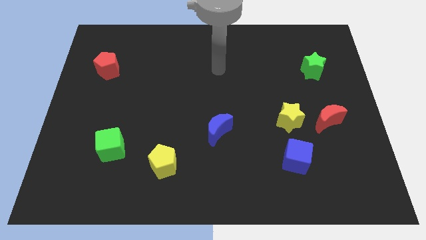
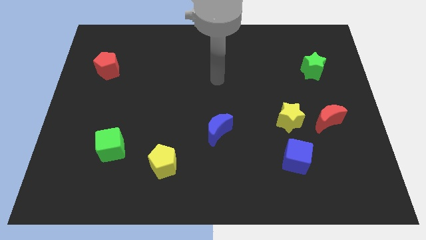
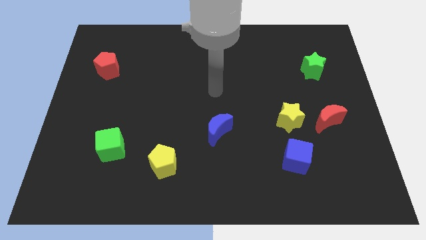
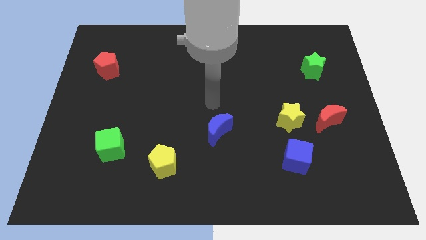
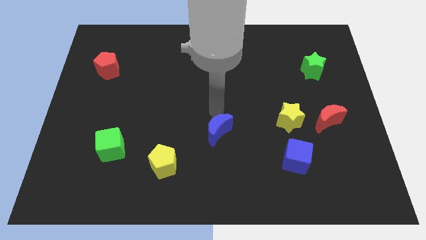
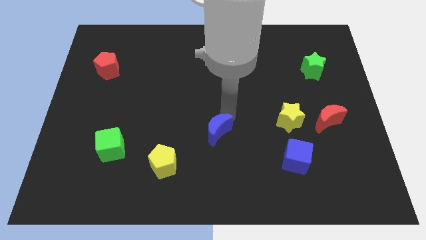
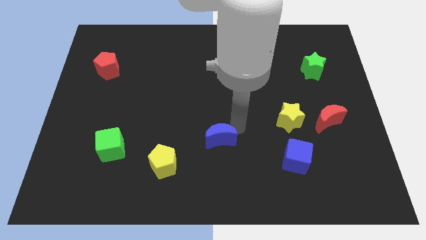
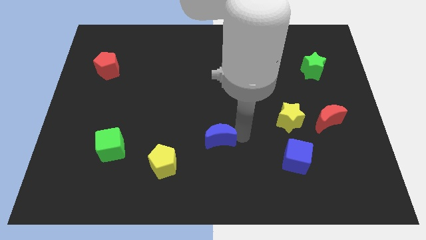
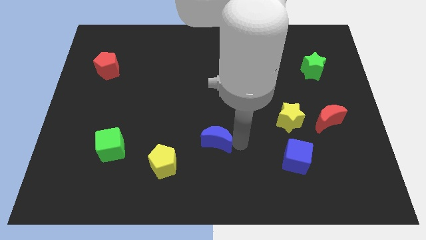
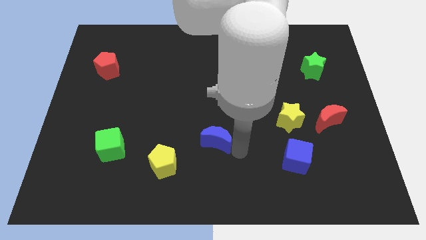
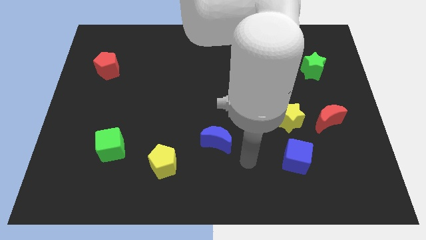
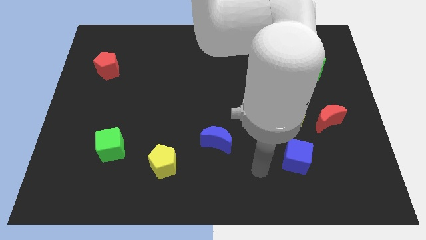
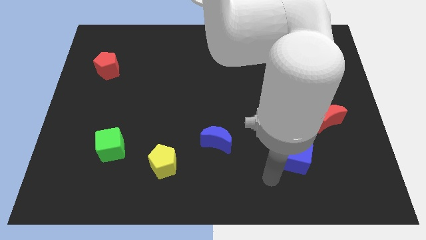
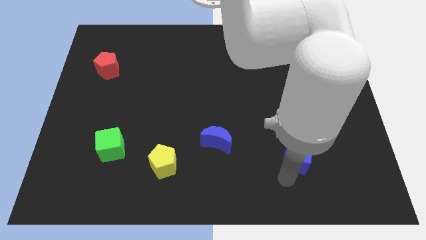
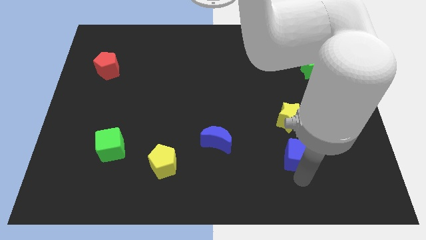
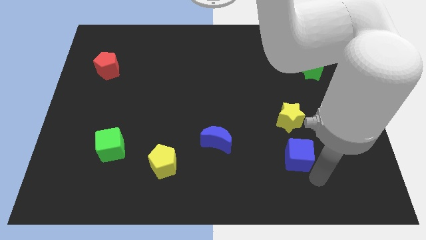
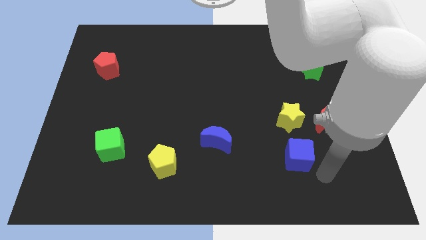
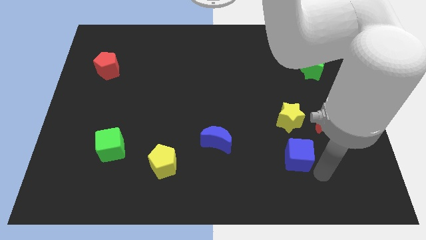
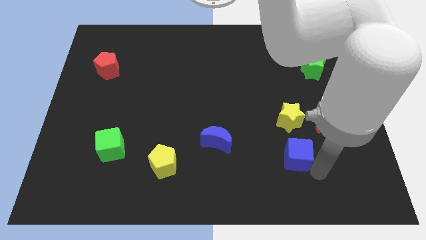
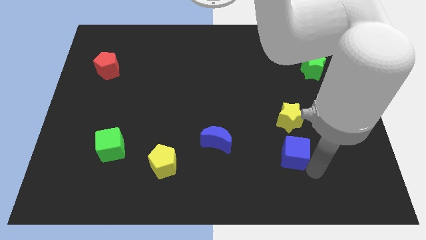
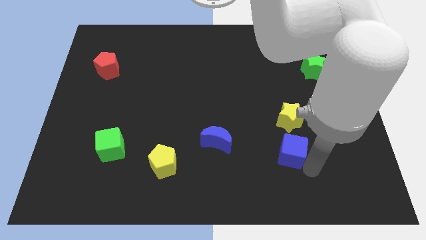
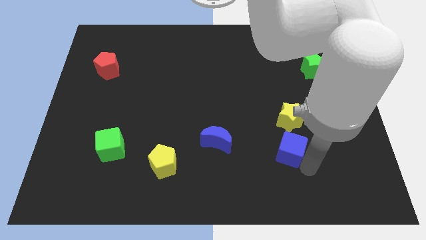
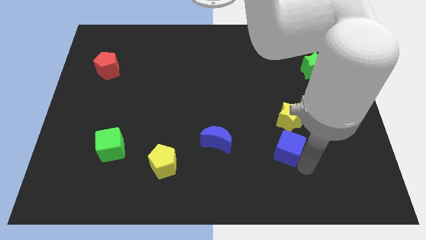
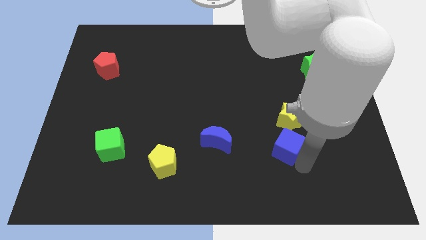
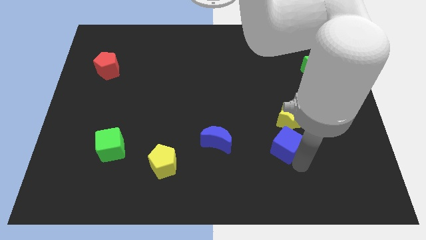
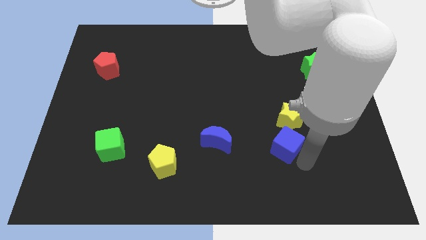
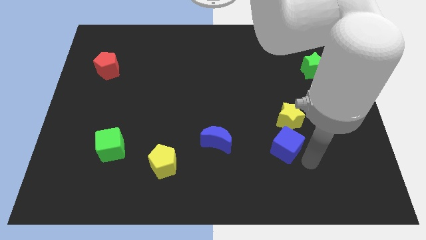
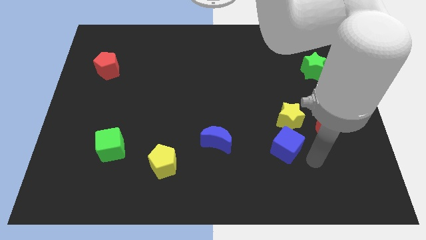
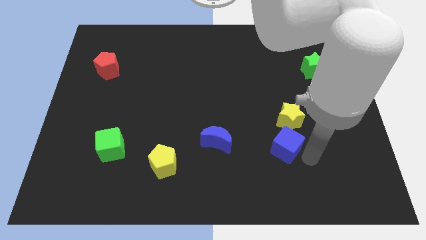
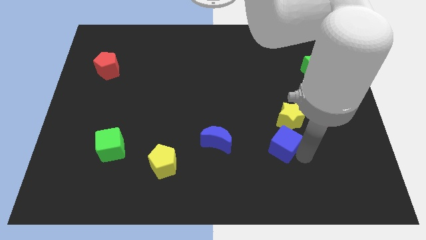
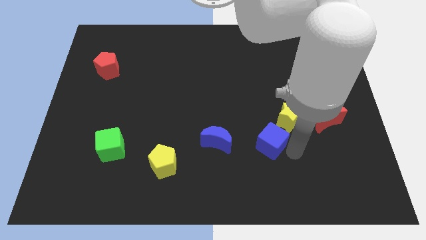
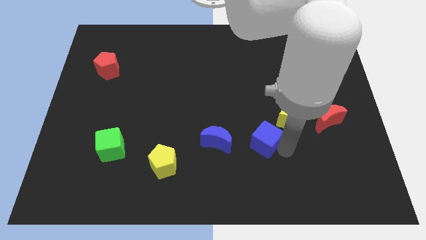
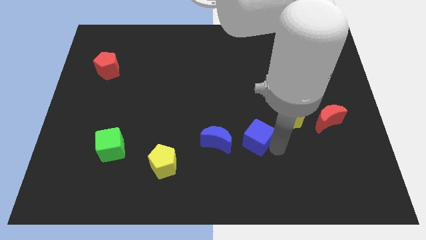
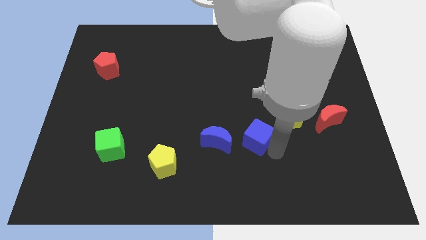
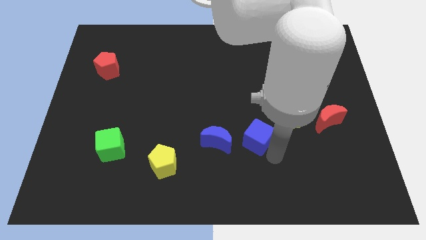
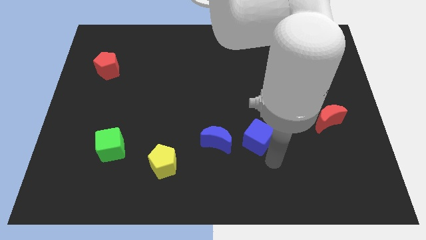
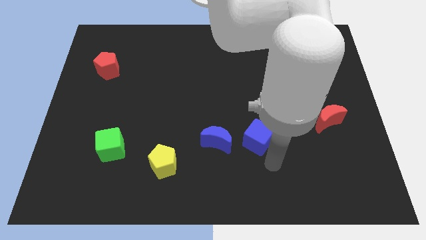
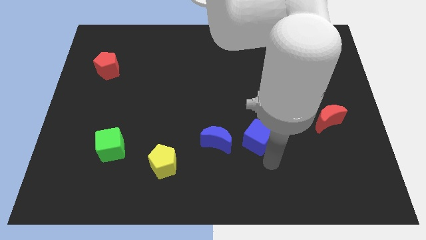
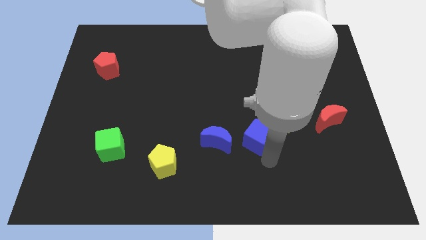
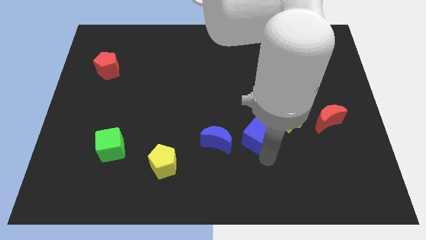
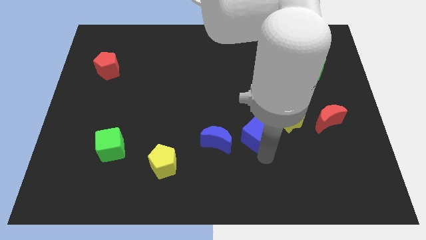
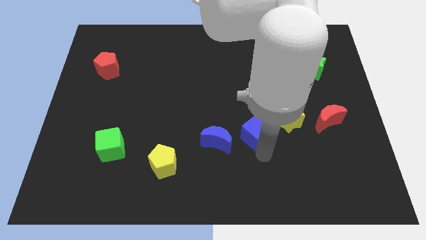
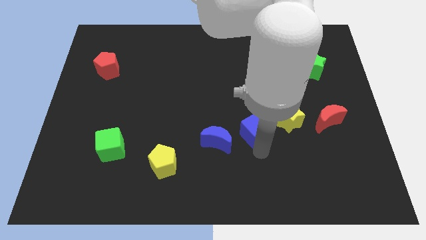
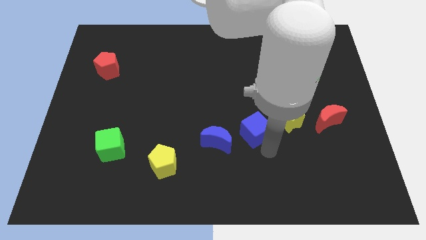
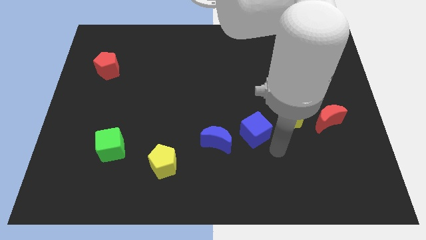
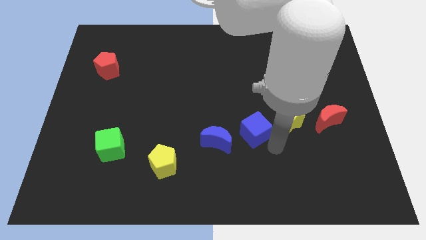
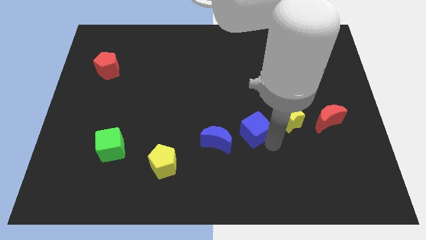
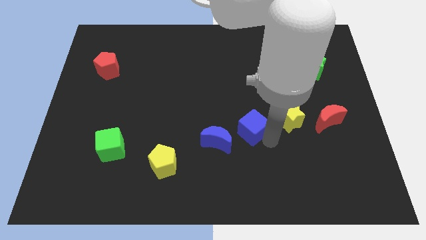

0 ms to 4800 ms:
slide the blue cube to the middle of the board

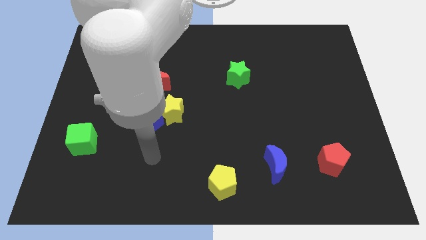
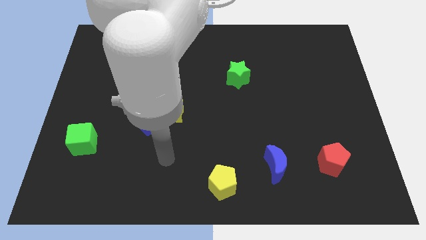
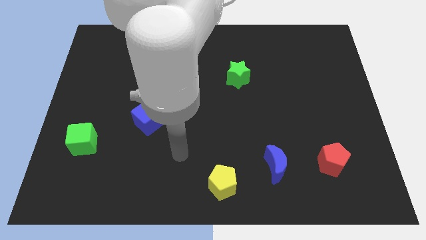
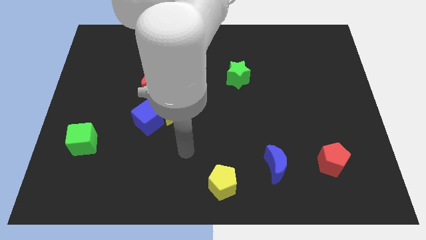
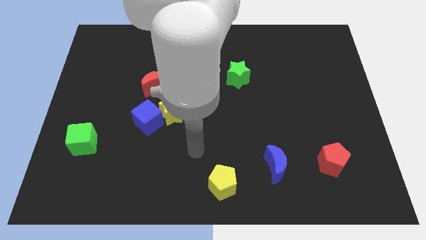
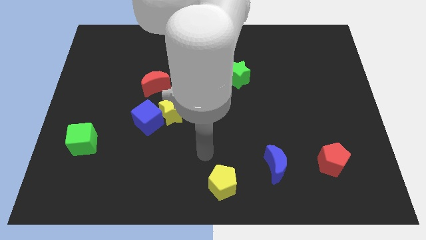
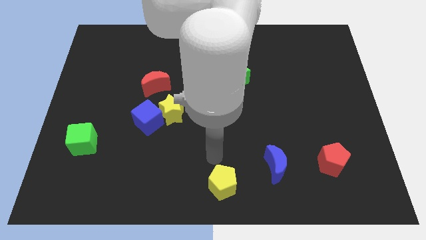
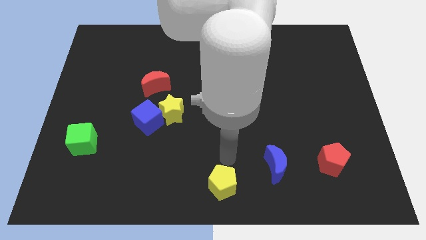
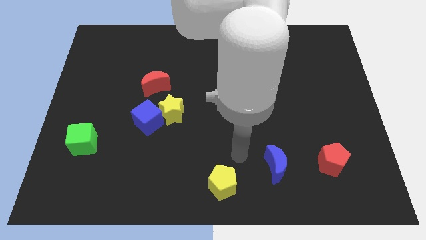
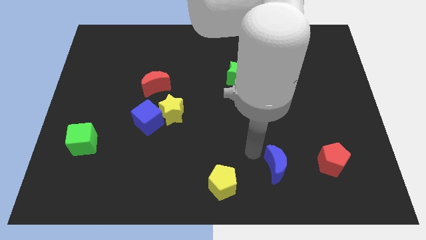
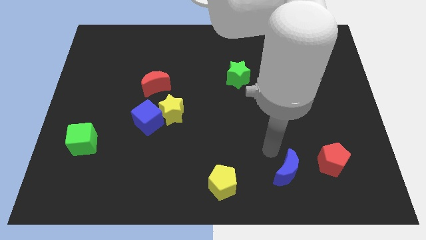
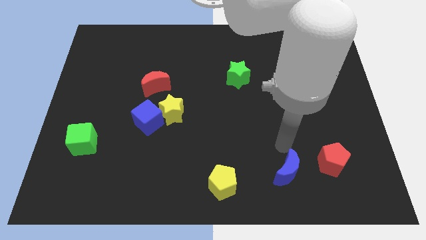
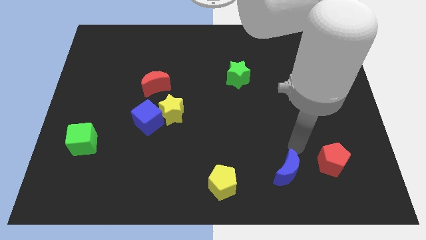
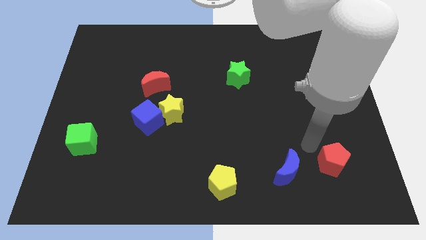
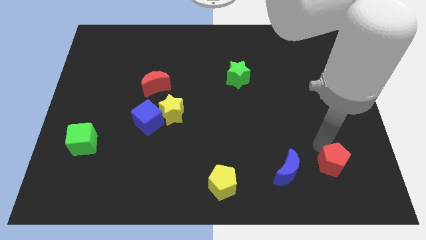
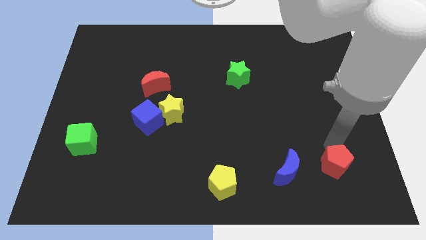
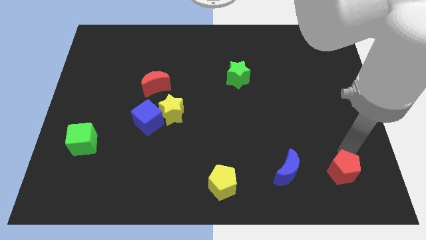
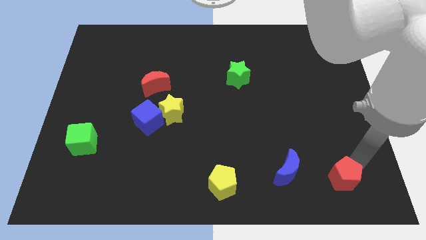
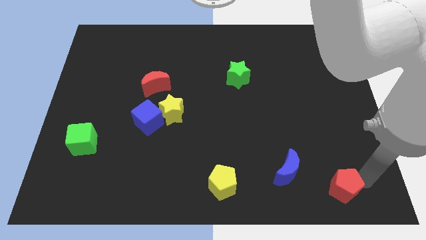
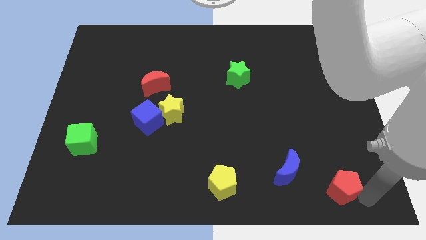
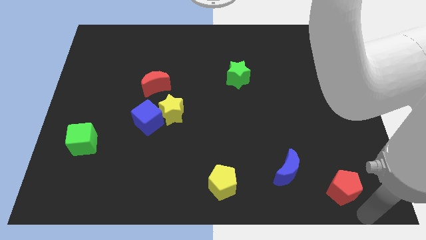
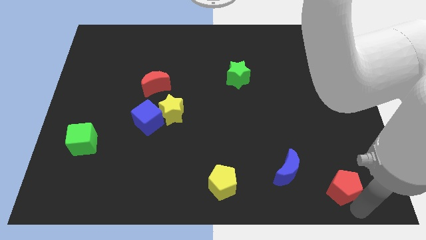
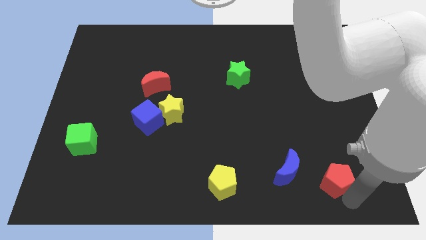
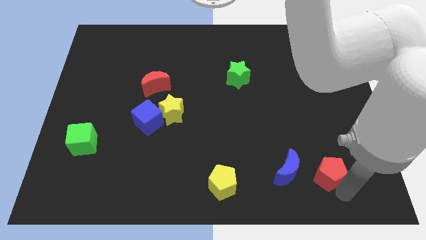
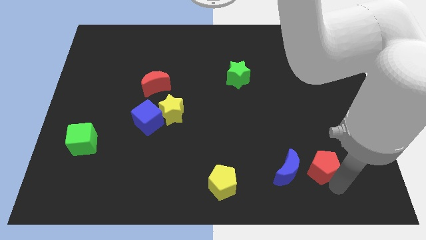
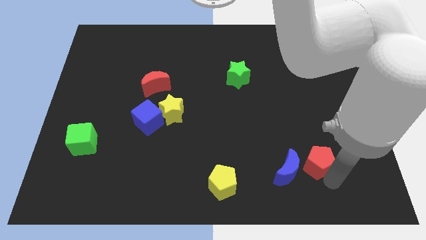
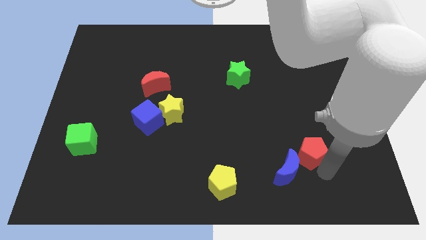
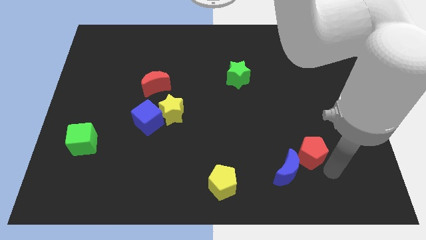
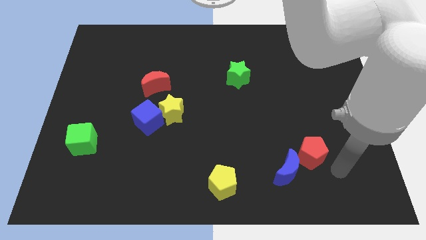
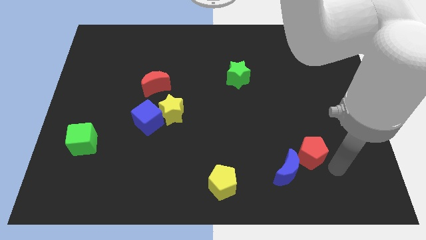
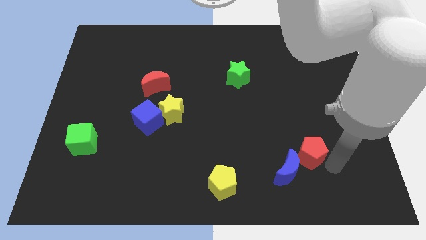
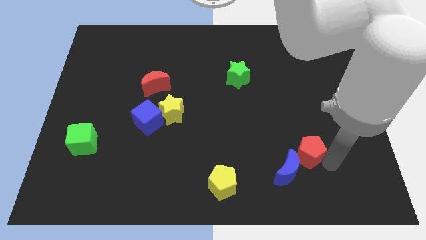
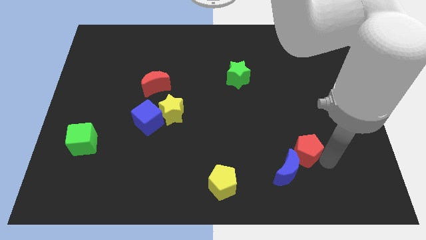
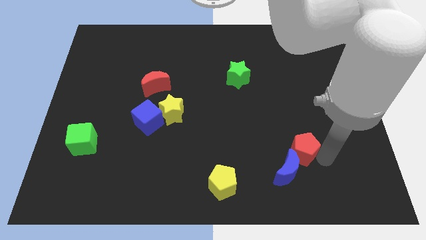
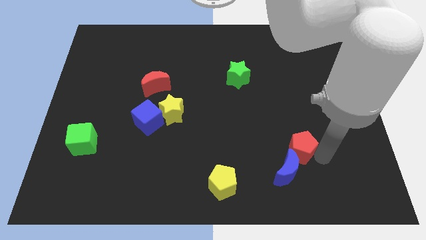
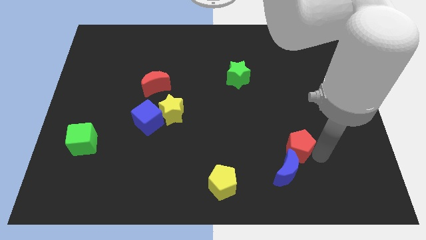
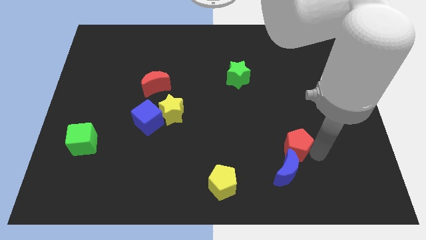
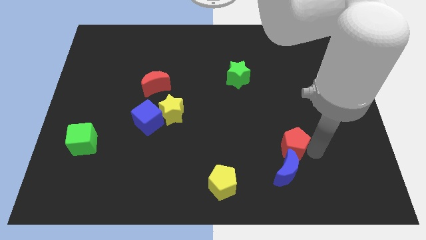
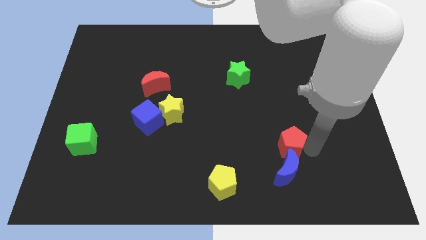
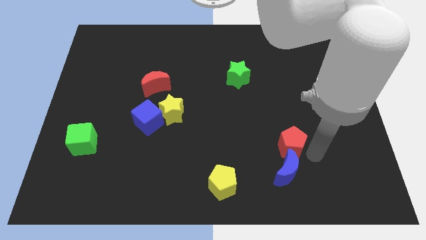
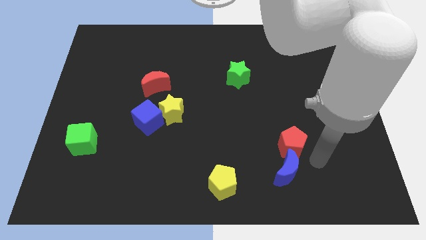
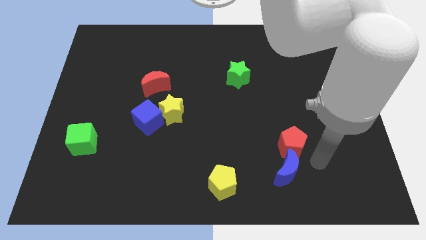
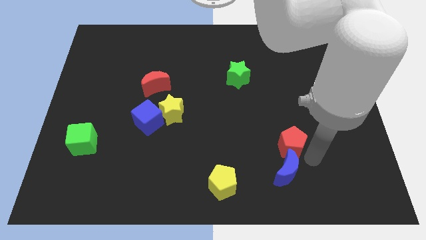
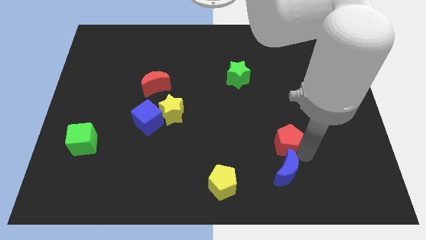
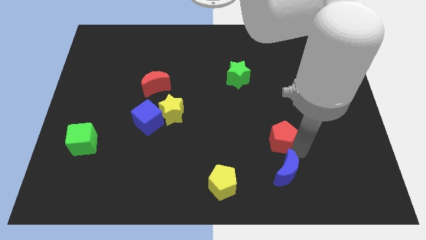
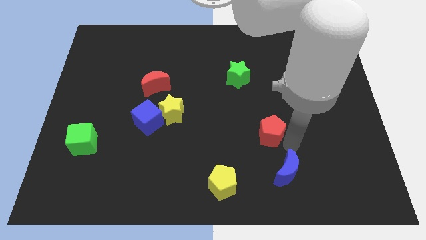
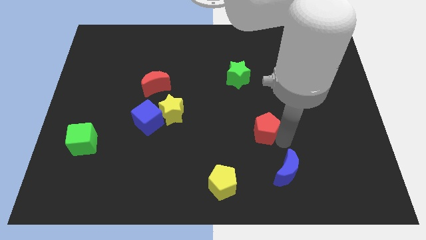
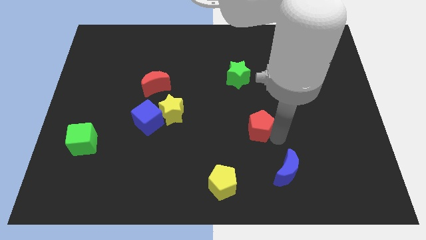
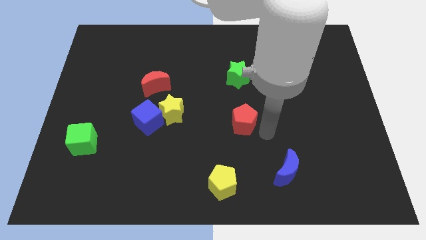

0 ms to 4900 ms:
move the red pentagon to the center
